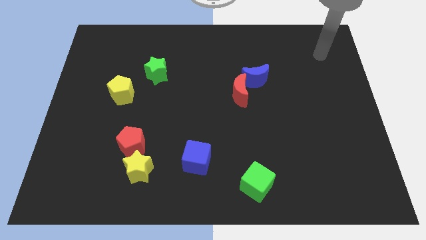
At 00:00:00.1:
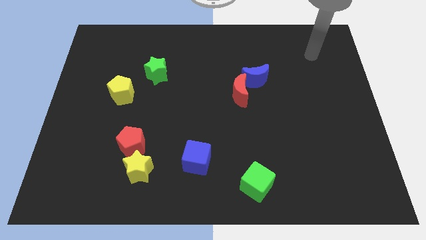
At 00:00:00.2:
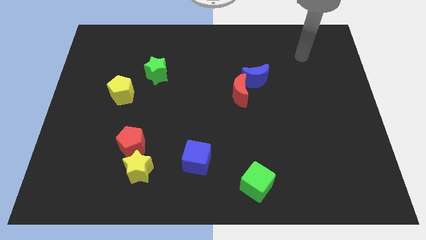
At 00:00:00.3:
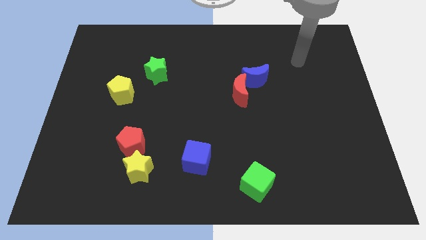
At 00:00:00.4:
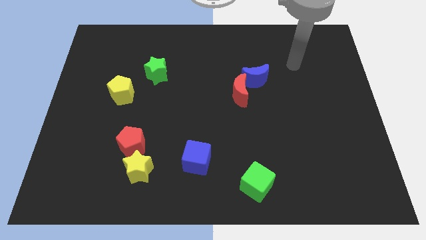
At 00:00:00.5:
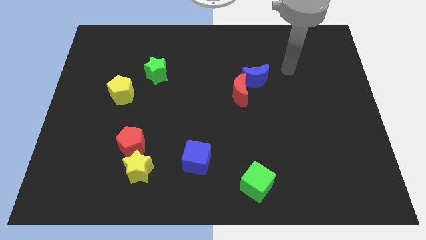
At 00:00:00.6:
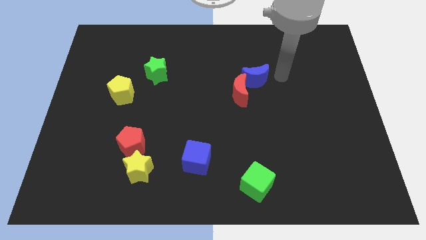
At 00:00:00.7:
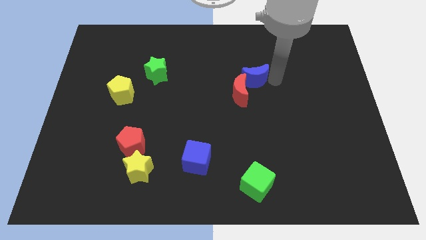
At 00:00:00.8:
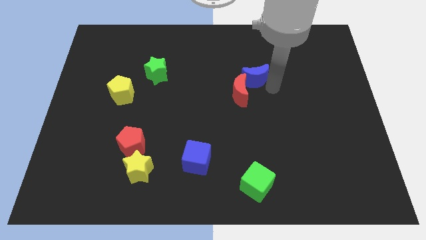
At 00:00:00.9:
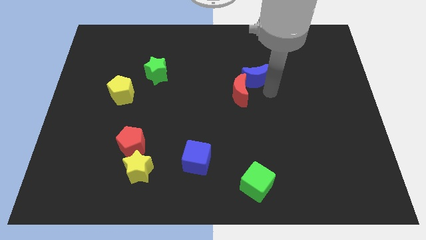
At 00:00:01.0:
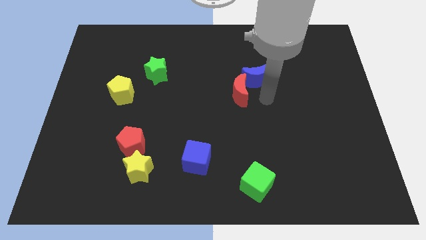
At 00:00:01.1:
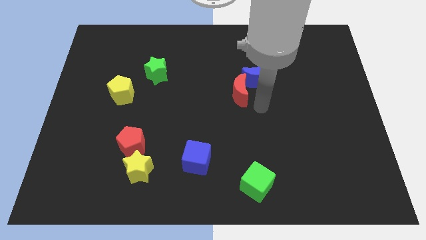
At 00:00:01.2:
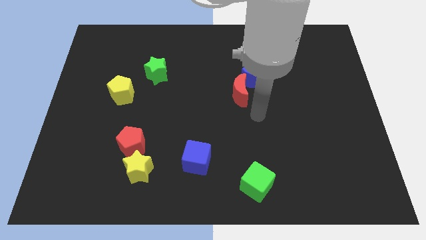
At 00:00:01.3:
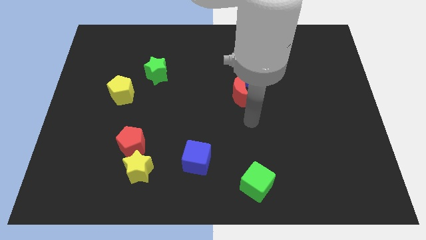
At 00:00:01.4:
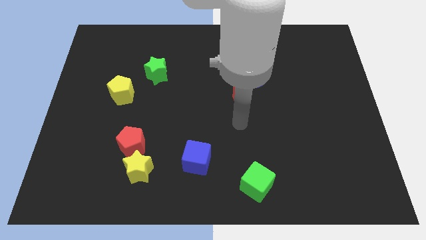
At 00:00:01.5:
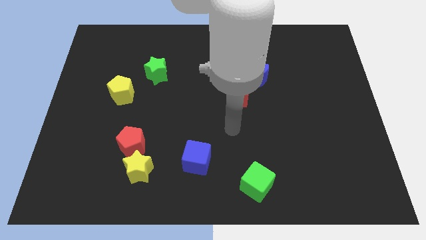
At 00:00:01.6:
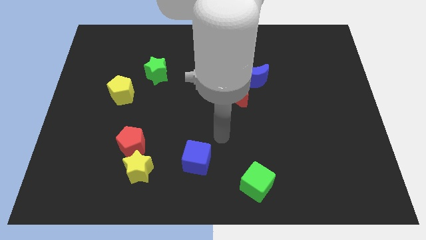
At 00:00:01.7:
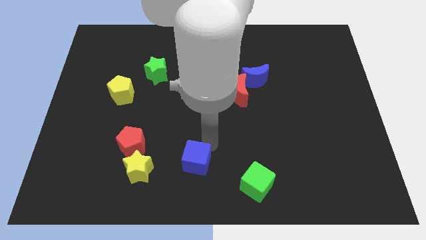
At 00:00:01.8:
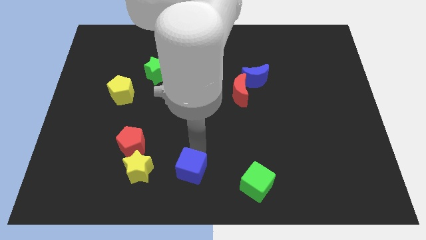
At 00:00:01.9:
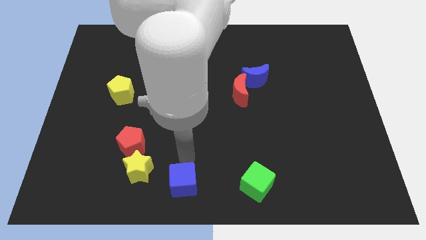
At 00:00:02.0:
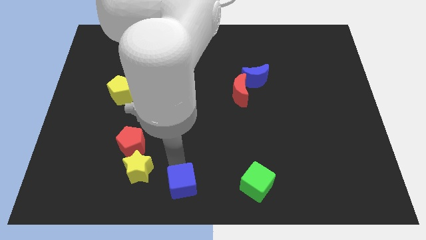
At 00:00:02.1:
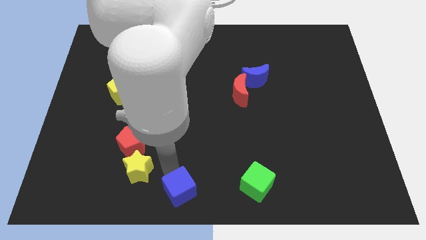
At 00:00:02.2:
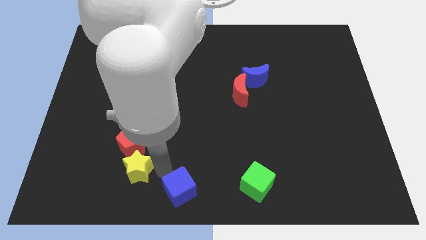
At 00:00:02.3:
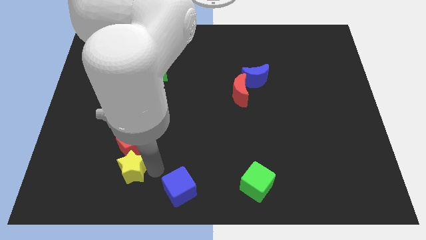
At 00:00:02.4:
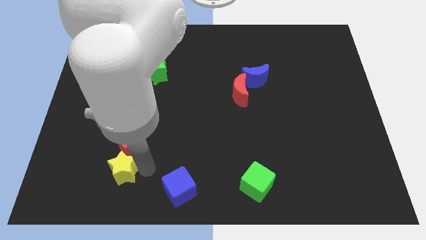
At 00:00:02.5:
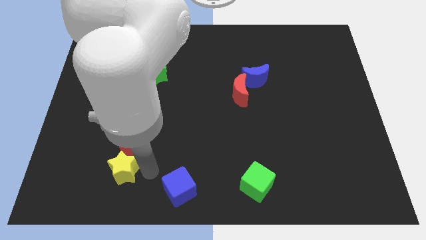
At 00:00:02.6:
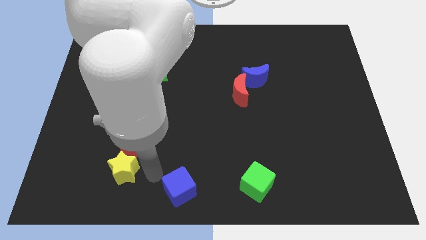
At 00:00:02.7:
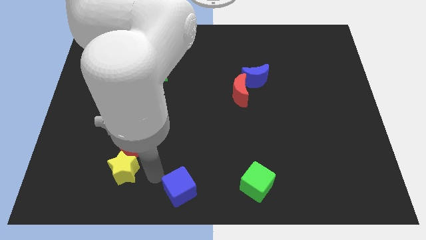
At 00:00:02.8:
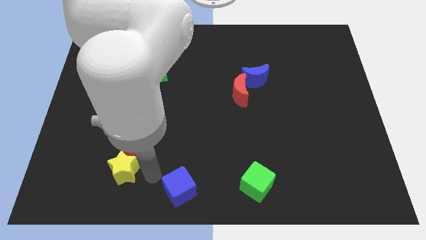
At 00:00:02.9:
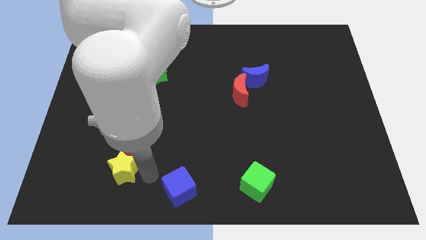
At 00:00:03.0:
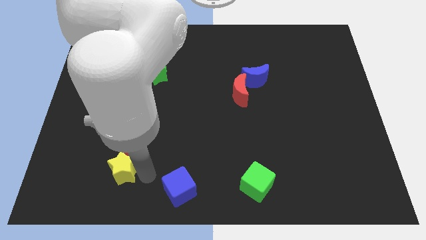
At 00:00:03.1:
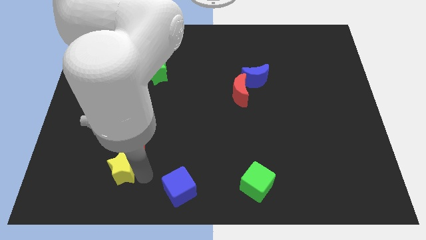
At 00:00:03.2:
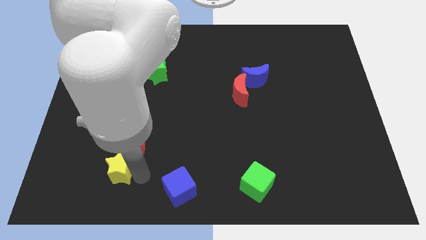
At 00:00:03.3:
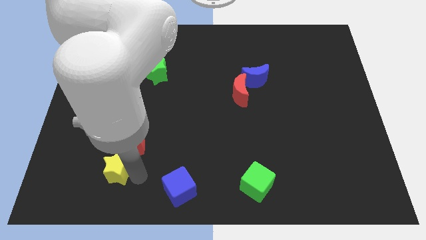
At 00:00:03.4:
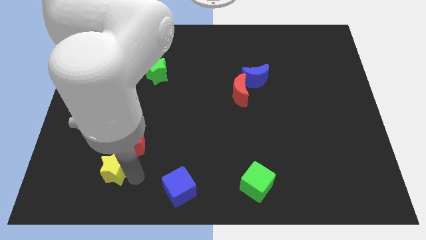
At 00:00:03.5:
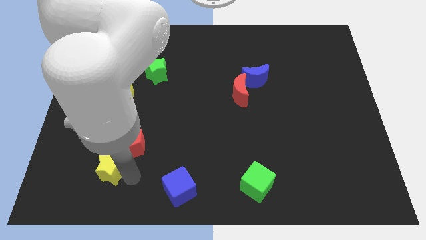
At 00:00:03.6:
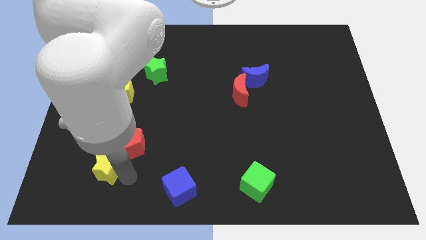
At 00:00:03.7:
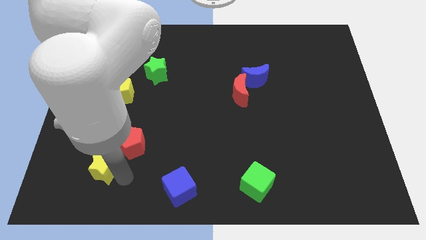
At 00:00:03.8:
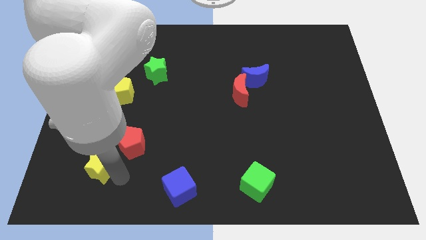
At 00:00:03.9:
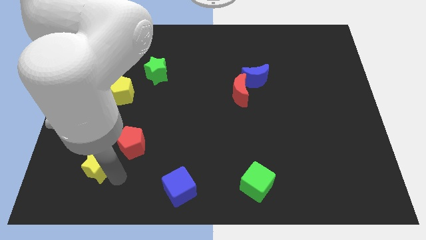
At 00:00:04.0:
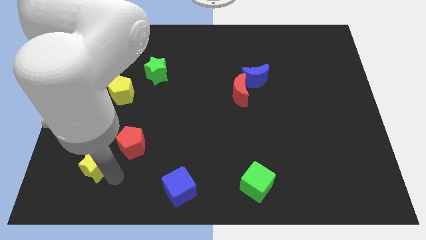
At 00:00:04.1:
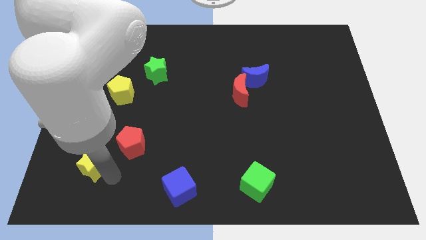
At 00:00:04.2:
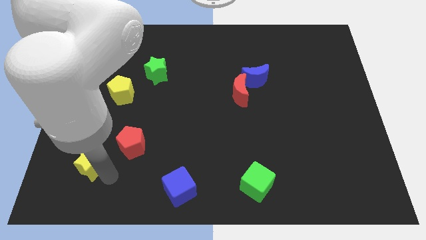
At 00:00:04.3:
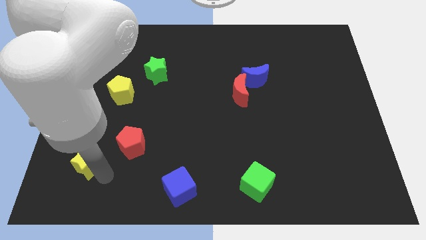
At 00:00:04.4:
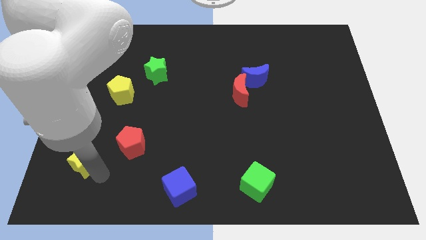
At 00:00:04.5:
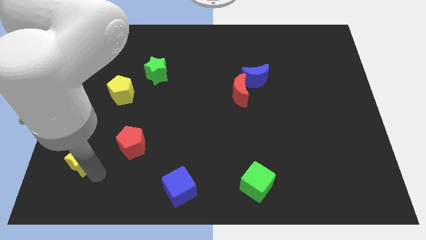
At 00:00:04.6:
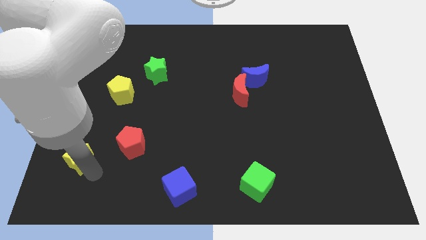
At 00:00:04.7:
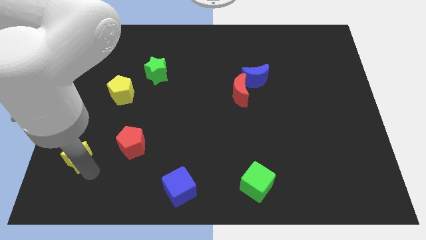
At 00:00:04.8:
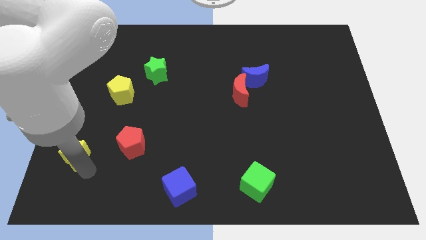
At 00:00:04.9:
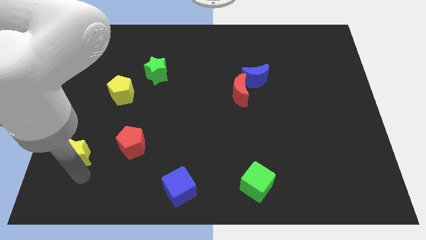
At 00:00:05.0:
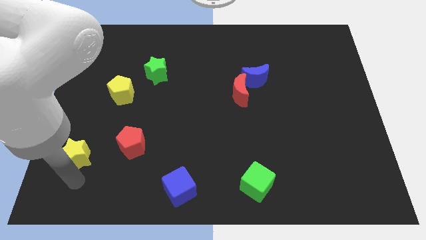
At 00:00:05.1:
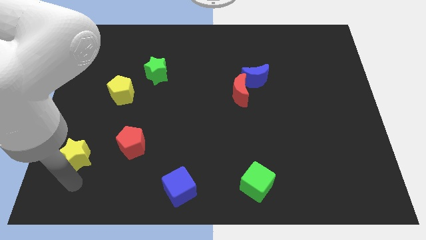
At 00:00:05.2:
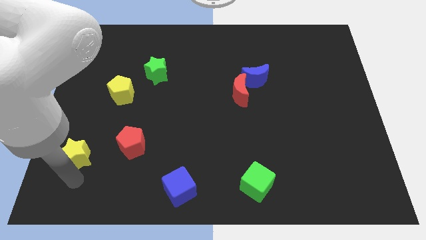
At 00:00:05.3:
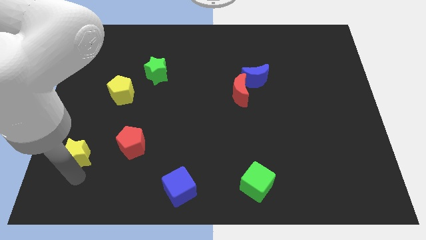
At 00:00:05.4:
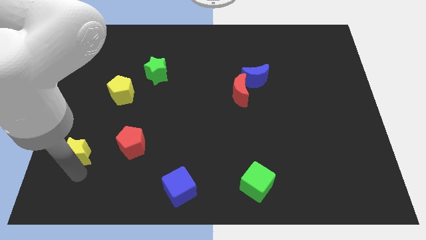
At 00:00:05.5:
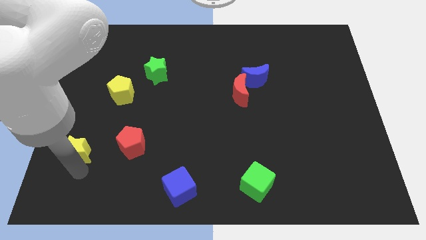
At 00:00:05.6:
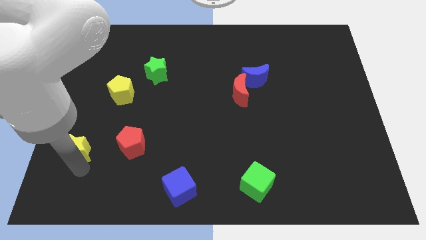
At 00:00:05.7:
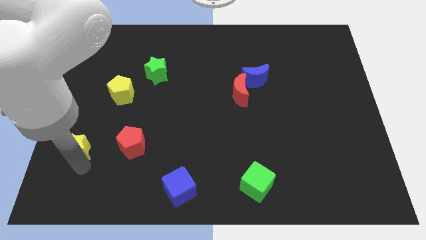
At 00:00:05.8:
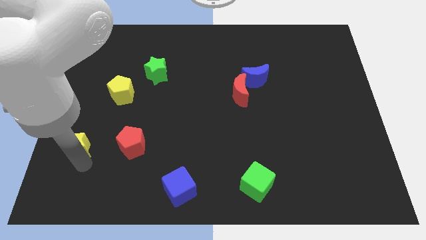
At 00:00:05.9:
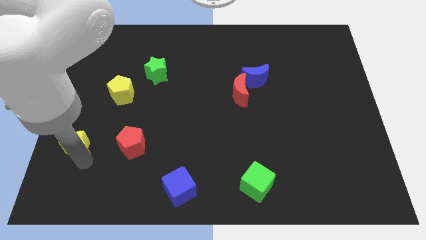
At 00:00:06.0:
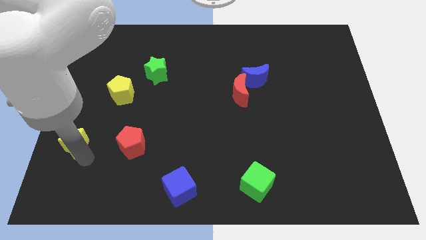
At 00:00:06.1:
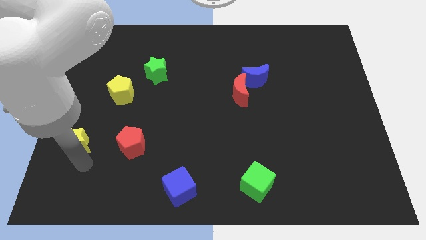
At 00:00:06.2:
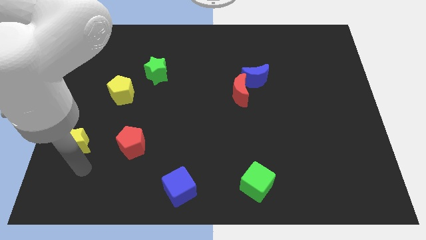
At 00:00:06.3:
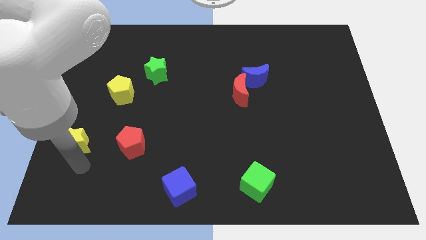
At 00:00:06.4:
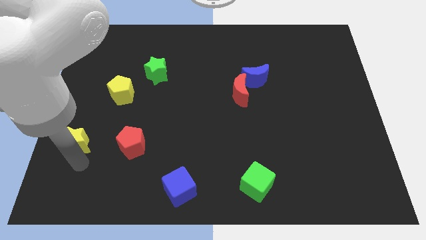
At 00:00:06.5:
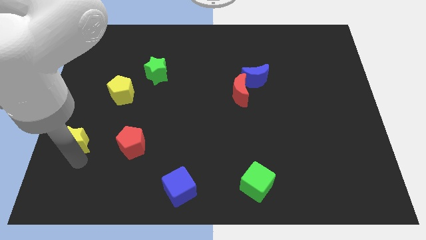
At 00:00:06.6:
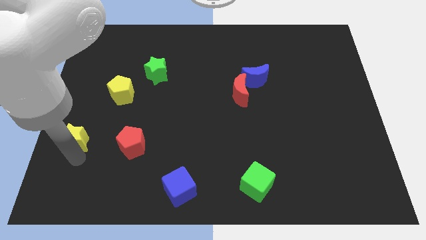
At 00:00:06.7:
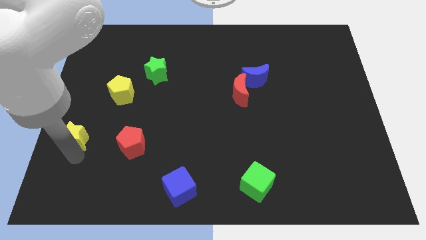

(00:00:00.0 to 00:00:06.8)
put the yellow star to the left side

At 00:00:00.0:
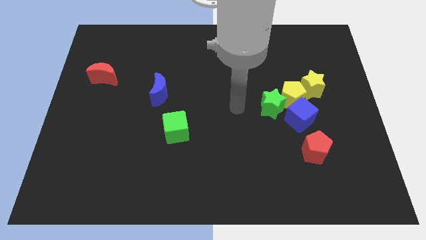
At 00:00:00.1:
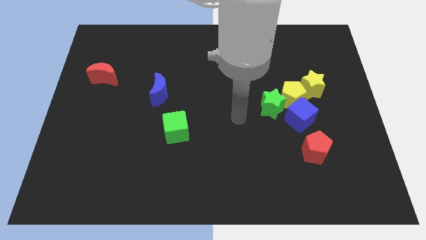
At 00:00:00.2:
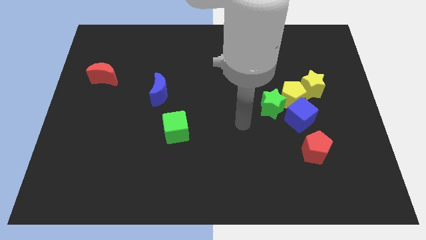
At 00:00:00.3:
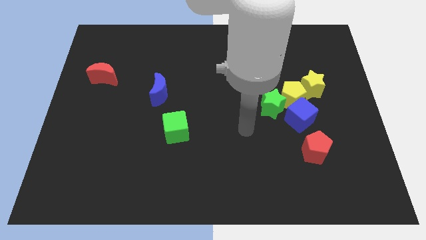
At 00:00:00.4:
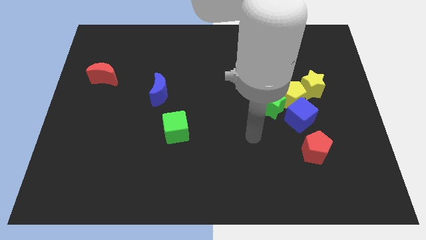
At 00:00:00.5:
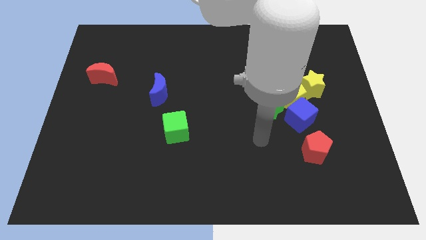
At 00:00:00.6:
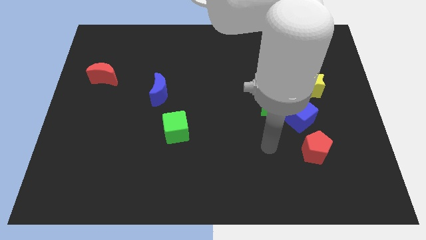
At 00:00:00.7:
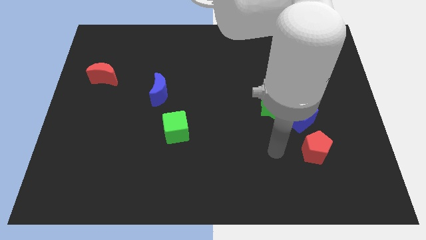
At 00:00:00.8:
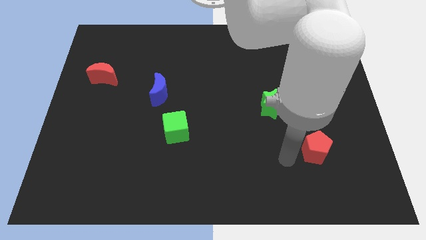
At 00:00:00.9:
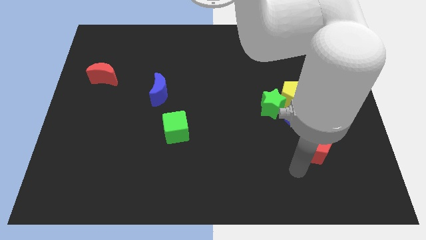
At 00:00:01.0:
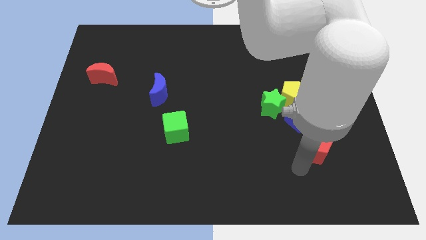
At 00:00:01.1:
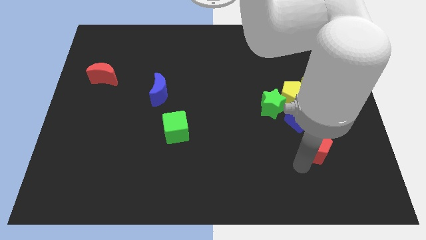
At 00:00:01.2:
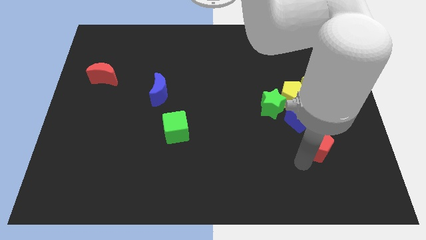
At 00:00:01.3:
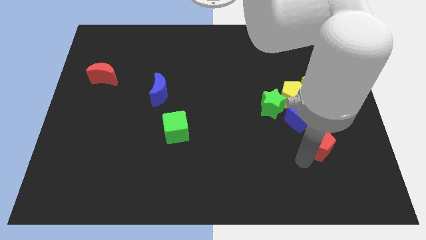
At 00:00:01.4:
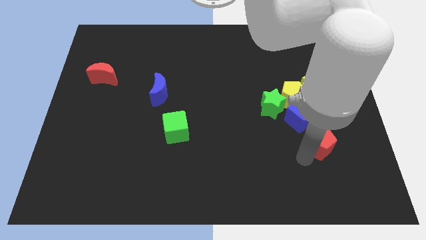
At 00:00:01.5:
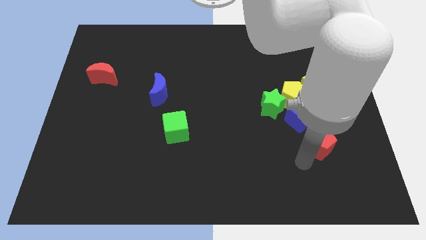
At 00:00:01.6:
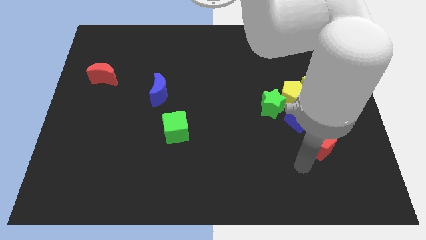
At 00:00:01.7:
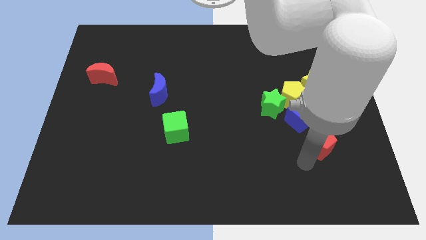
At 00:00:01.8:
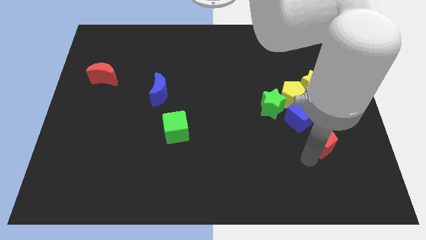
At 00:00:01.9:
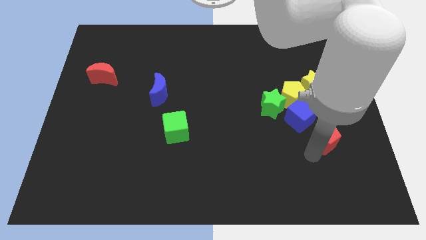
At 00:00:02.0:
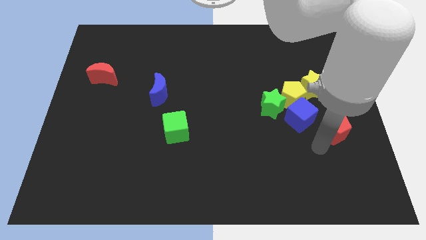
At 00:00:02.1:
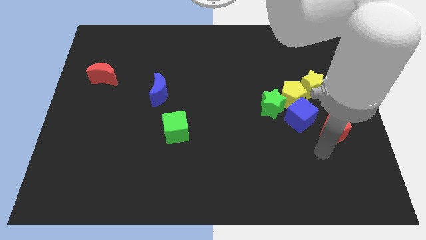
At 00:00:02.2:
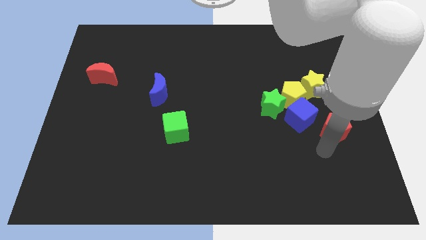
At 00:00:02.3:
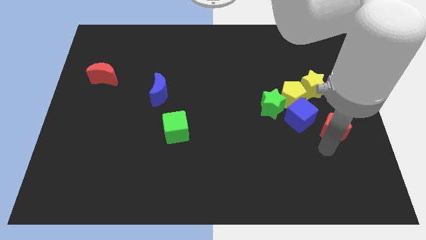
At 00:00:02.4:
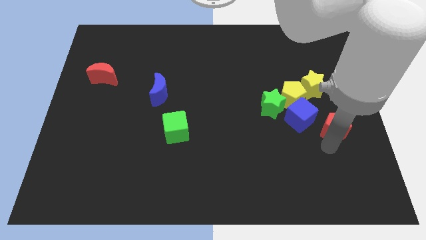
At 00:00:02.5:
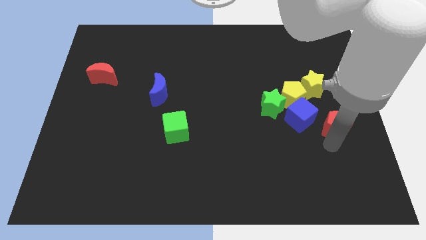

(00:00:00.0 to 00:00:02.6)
push the red pentagon to the right side
